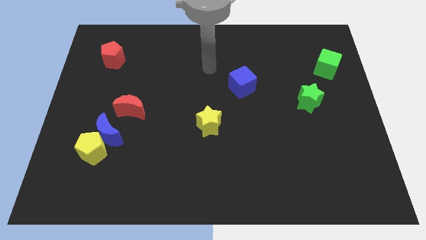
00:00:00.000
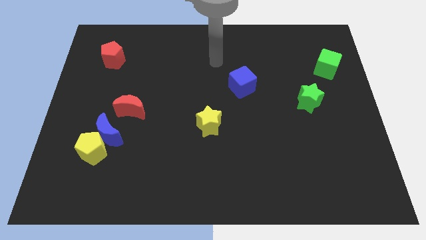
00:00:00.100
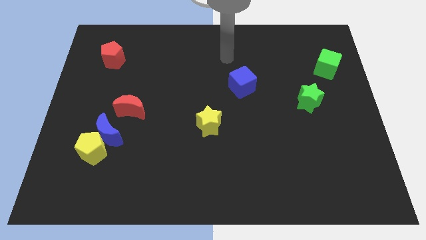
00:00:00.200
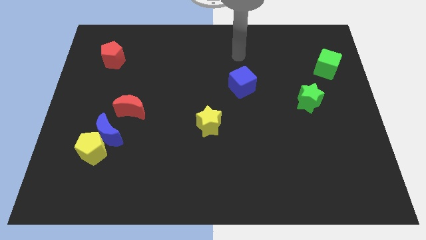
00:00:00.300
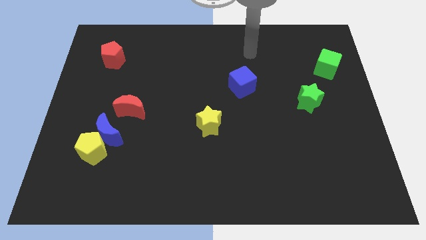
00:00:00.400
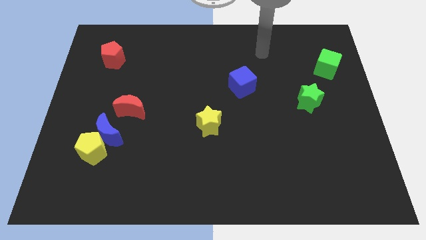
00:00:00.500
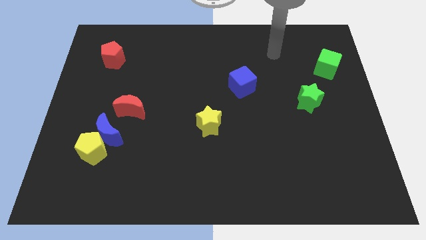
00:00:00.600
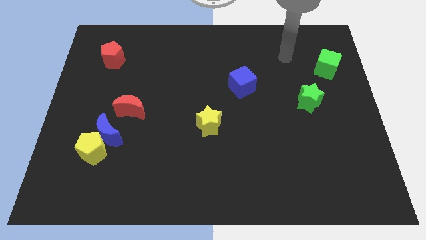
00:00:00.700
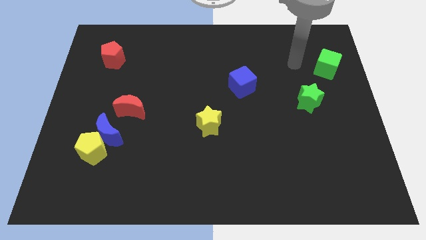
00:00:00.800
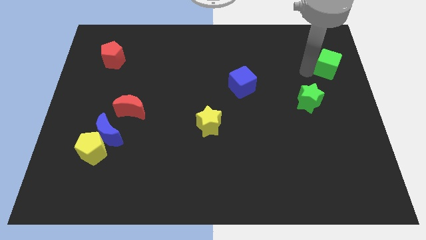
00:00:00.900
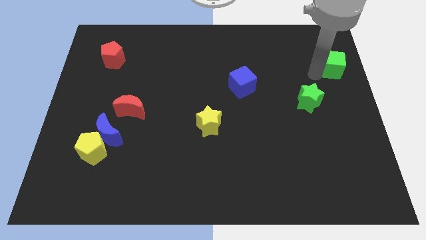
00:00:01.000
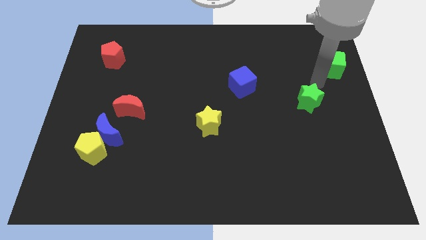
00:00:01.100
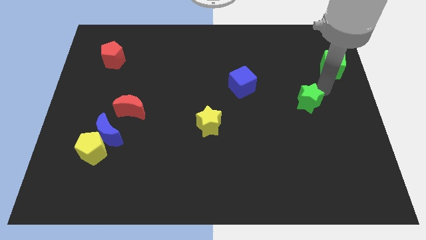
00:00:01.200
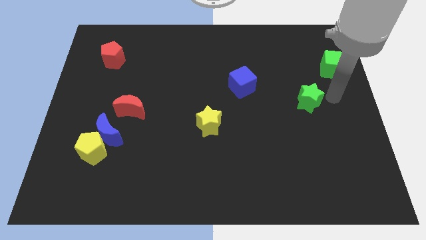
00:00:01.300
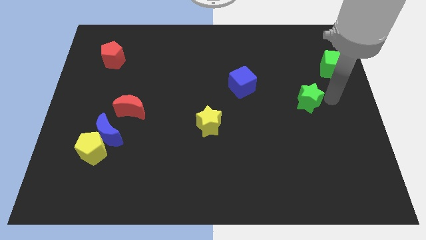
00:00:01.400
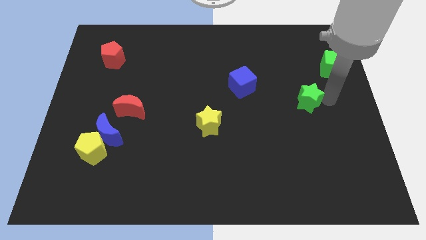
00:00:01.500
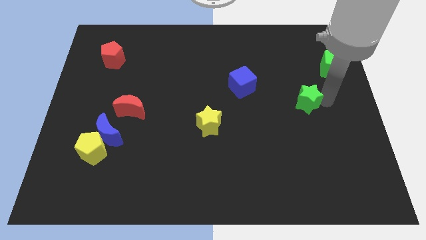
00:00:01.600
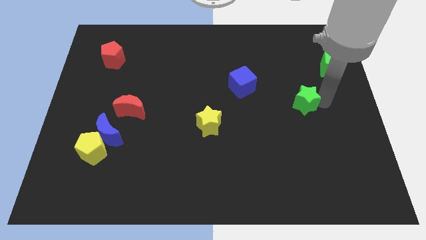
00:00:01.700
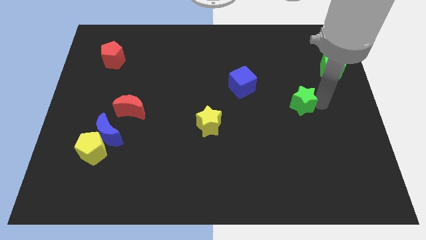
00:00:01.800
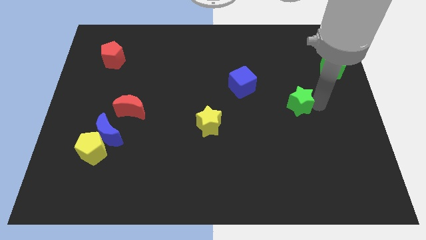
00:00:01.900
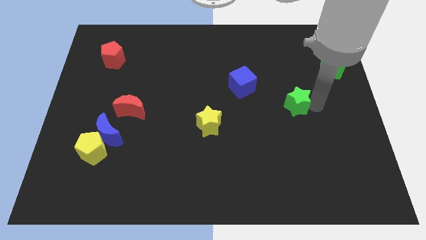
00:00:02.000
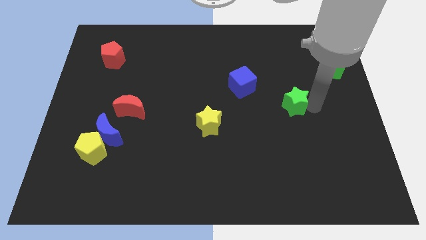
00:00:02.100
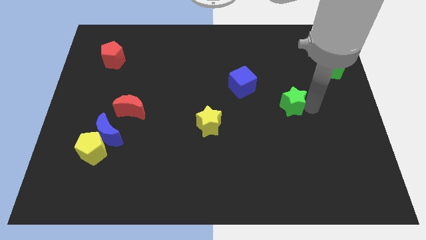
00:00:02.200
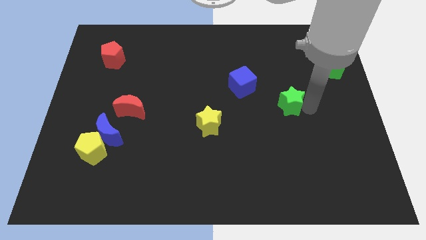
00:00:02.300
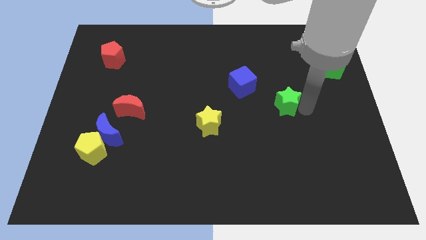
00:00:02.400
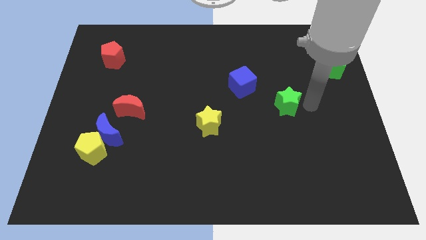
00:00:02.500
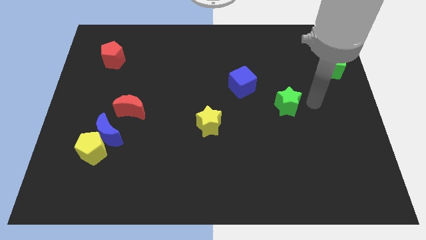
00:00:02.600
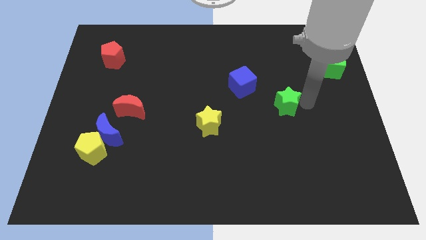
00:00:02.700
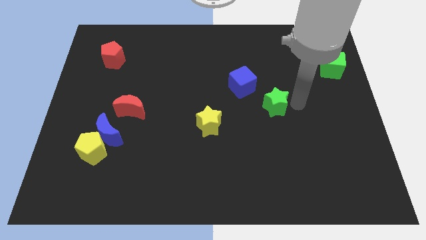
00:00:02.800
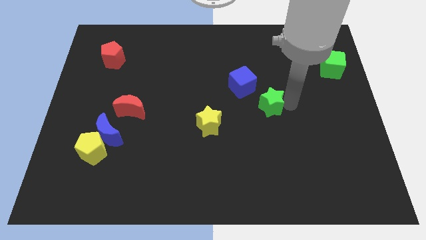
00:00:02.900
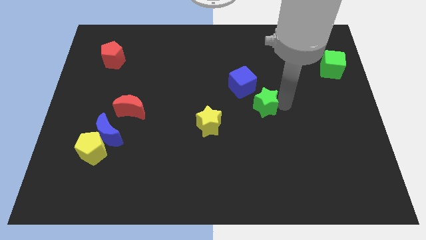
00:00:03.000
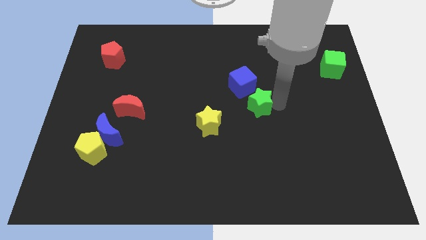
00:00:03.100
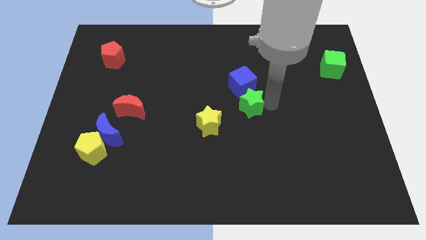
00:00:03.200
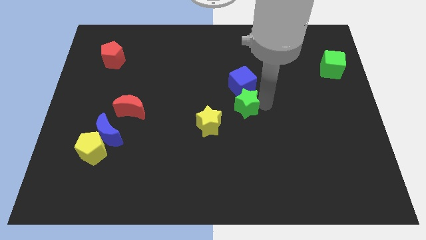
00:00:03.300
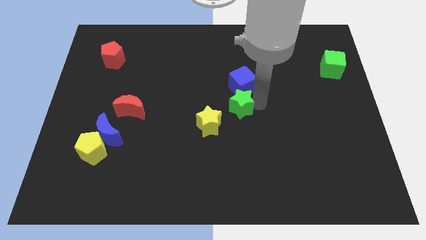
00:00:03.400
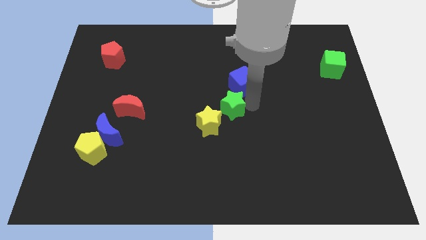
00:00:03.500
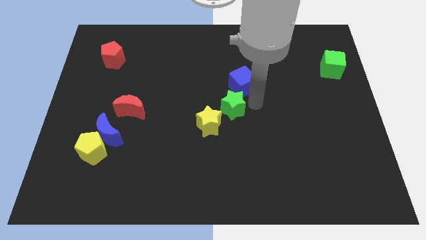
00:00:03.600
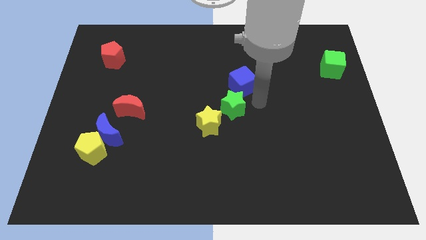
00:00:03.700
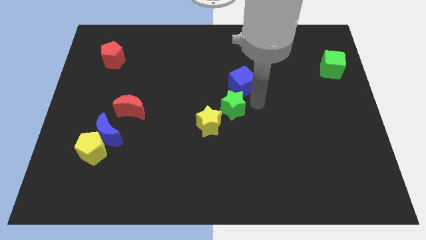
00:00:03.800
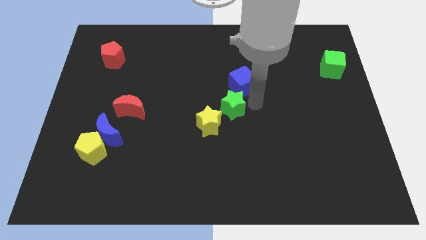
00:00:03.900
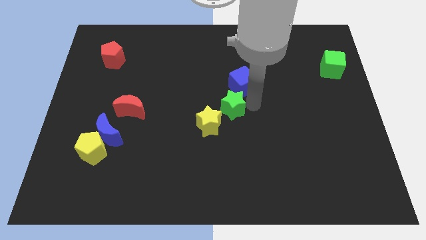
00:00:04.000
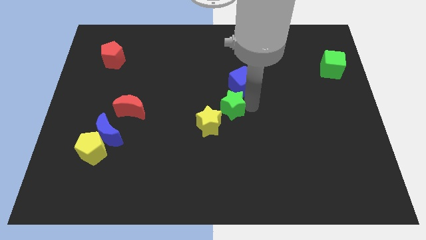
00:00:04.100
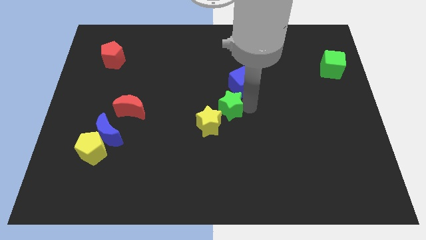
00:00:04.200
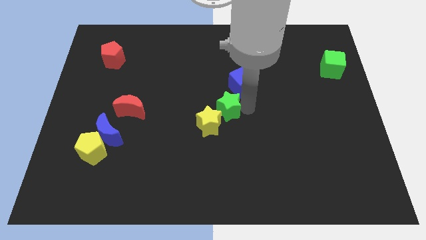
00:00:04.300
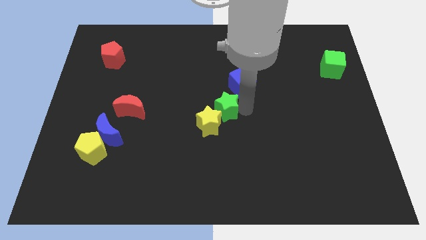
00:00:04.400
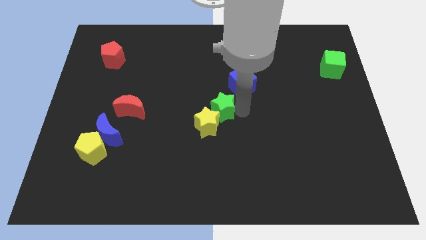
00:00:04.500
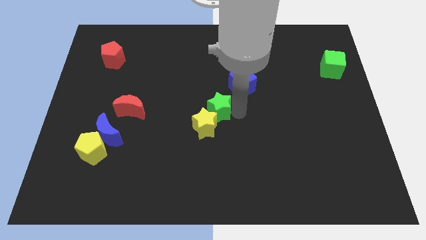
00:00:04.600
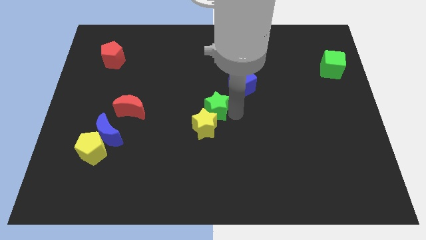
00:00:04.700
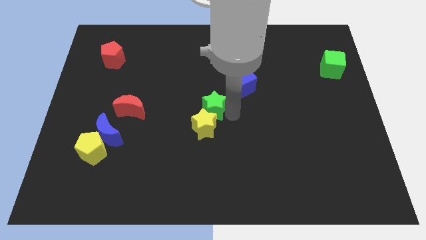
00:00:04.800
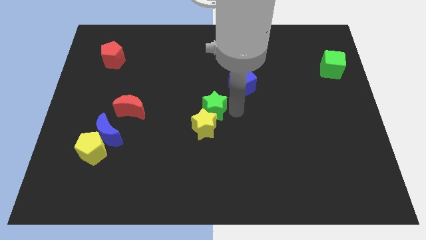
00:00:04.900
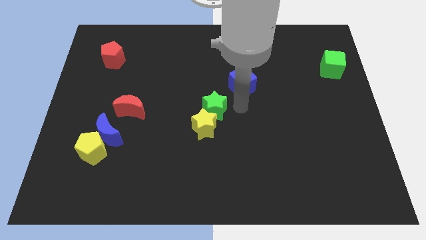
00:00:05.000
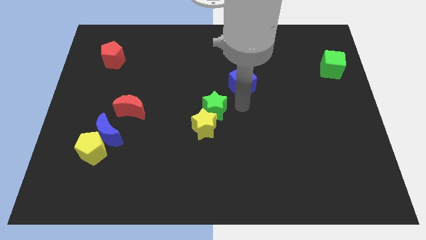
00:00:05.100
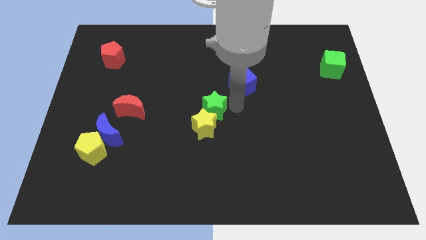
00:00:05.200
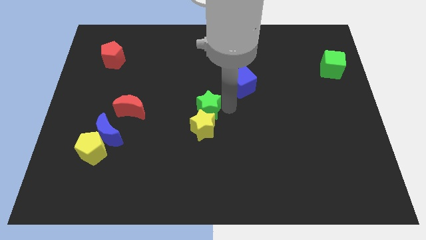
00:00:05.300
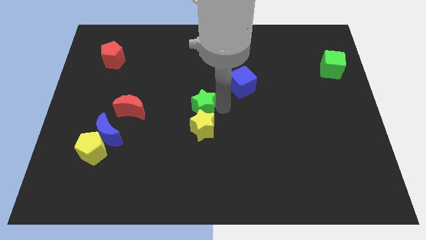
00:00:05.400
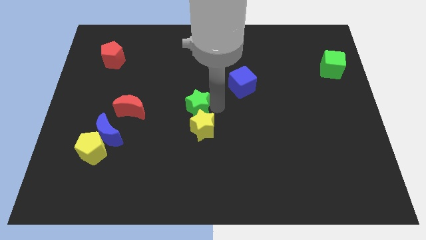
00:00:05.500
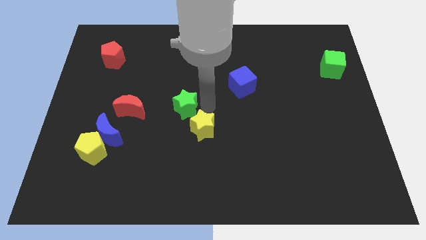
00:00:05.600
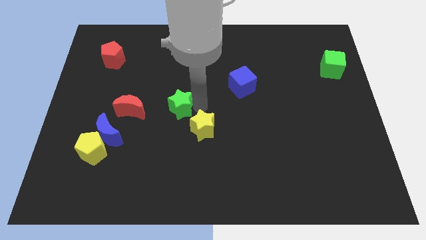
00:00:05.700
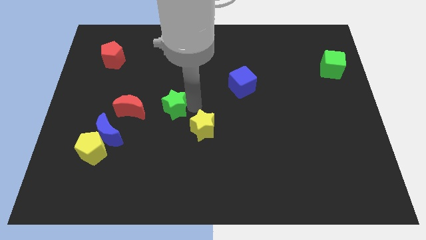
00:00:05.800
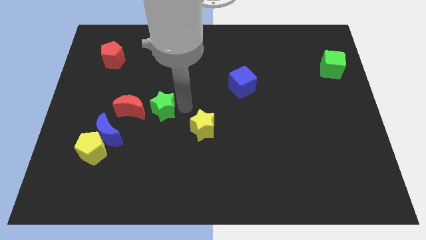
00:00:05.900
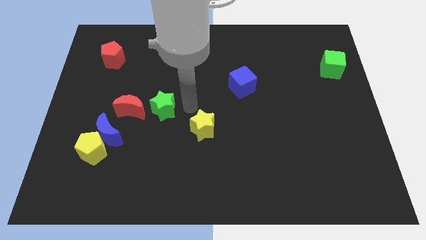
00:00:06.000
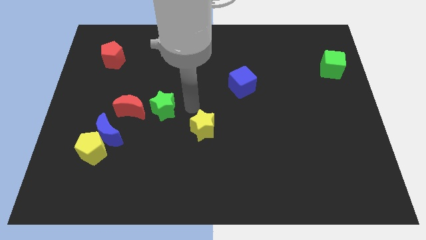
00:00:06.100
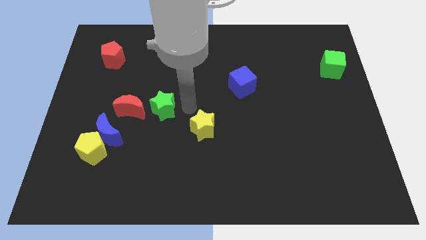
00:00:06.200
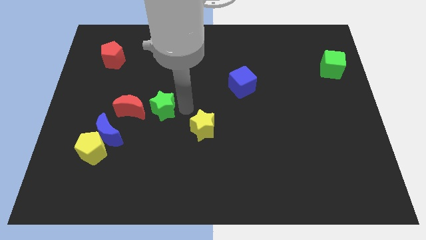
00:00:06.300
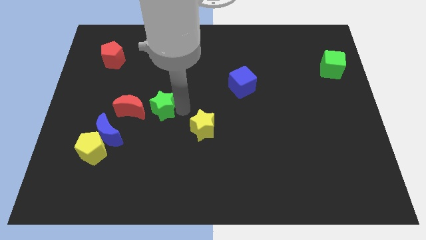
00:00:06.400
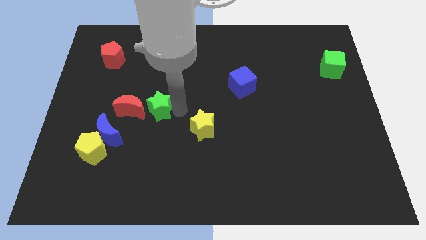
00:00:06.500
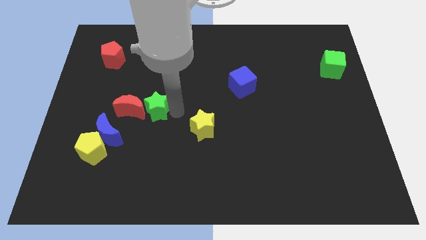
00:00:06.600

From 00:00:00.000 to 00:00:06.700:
move the green star next to the red moon

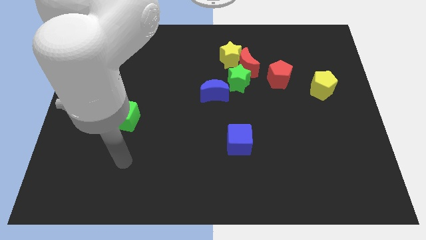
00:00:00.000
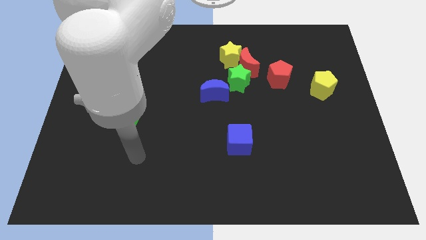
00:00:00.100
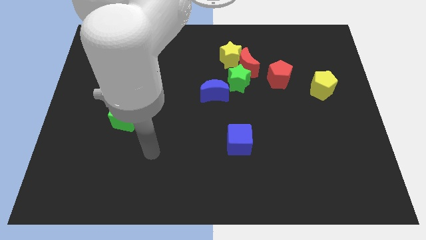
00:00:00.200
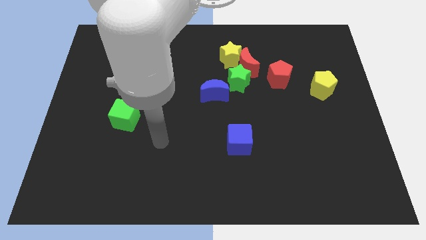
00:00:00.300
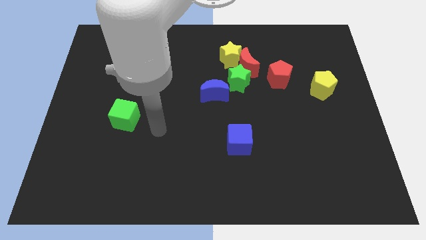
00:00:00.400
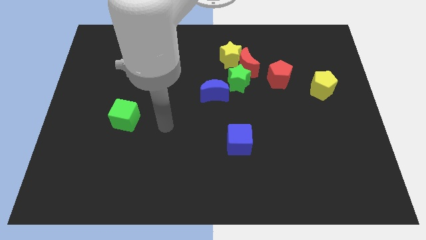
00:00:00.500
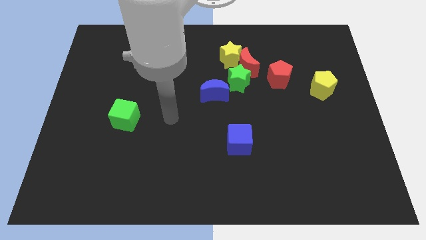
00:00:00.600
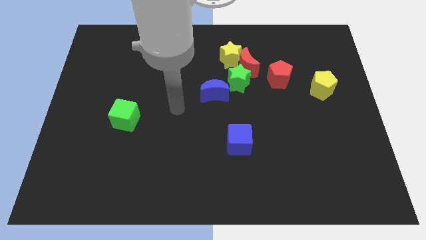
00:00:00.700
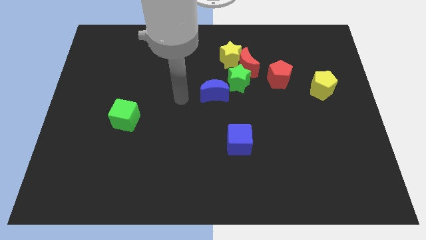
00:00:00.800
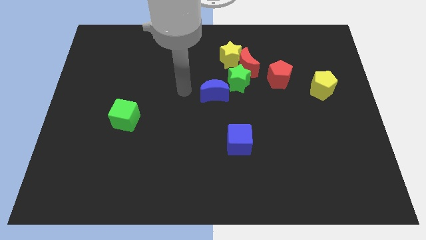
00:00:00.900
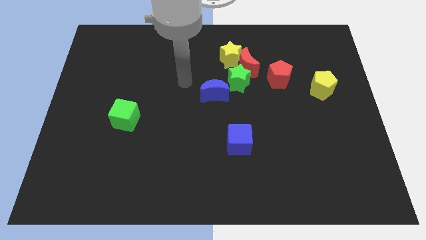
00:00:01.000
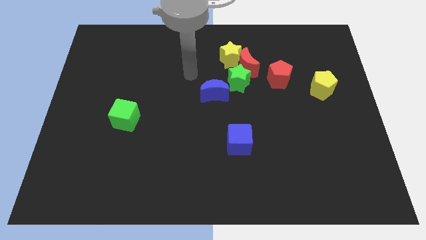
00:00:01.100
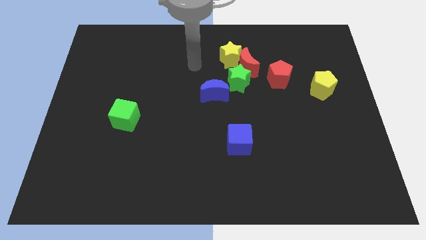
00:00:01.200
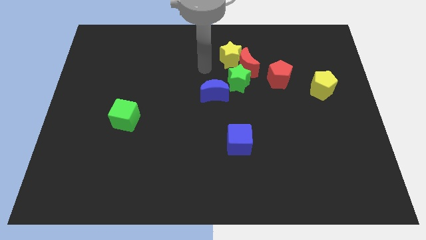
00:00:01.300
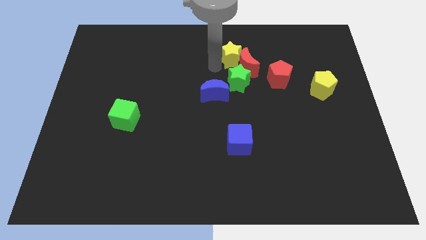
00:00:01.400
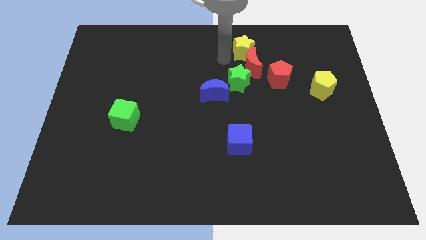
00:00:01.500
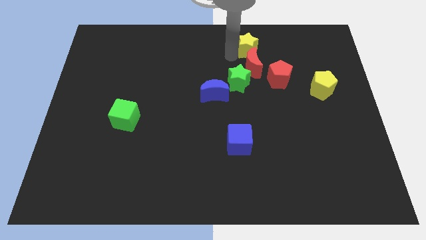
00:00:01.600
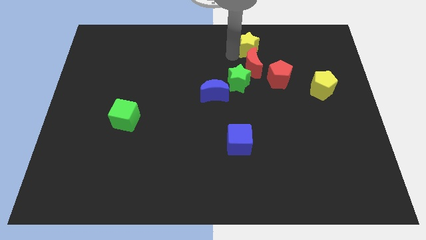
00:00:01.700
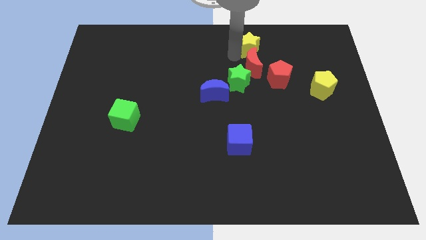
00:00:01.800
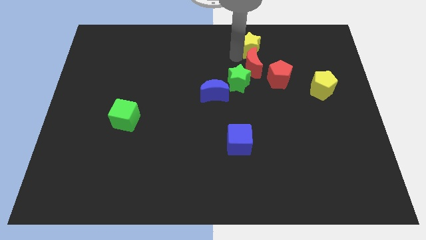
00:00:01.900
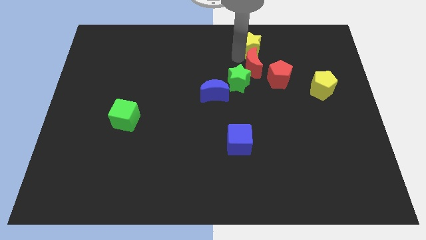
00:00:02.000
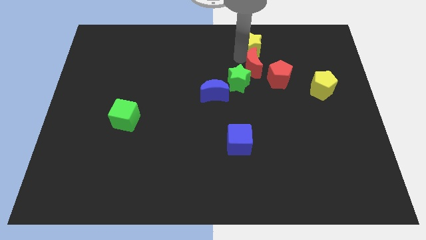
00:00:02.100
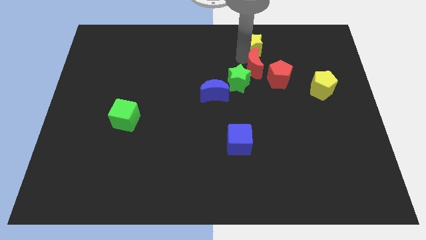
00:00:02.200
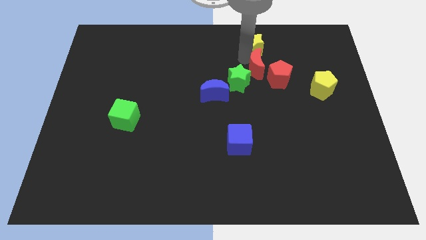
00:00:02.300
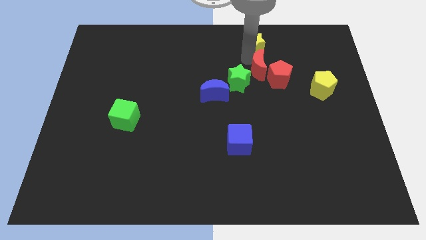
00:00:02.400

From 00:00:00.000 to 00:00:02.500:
put the red moon next to the red pentagon
